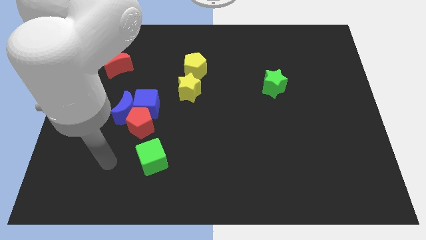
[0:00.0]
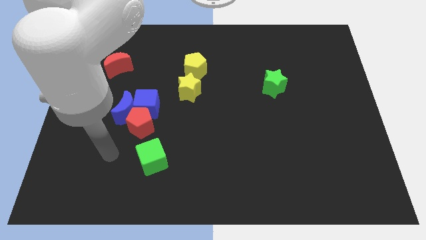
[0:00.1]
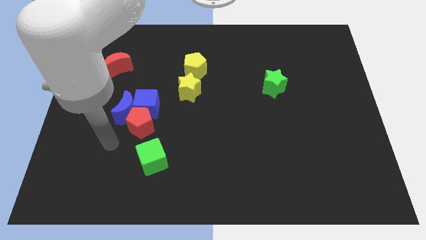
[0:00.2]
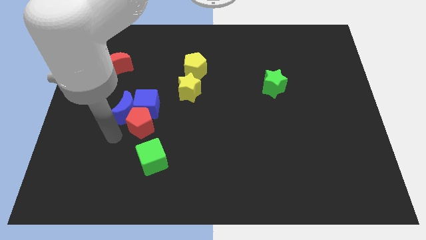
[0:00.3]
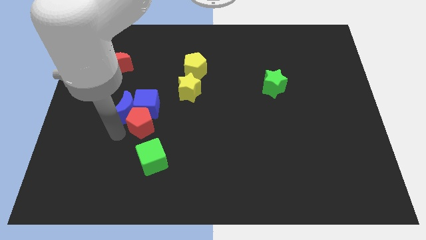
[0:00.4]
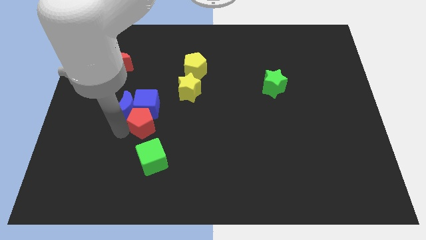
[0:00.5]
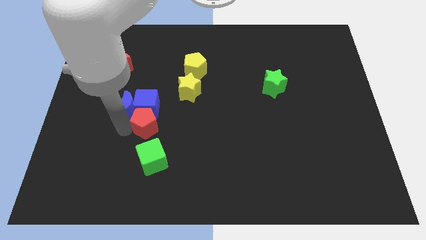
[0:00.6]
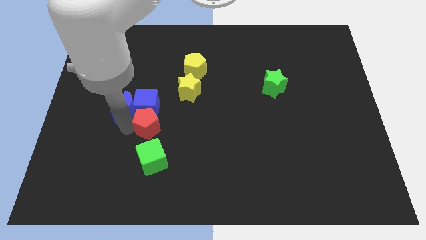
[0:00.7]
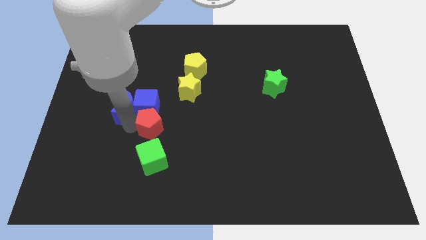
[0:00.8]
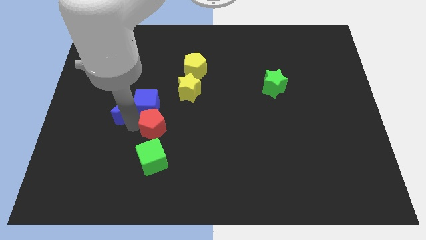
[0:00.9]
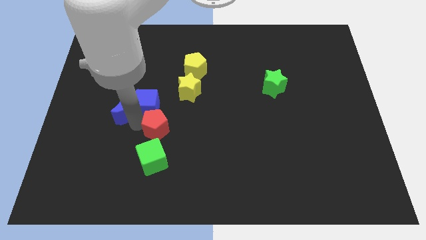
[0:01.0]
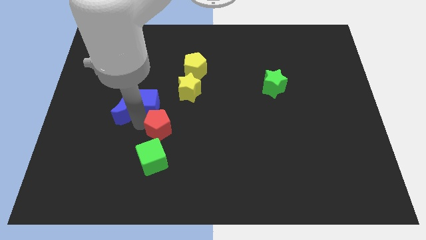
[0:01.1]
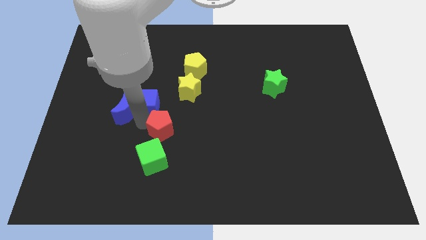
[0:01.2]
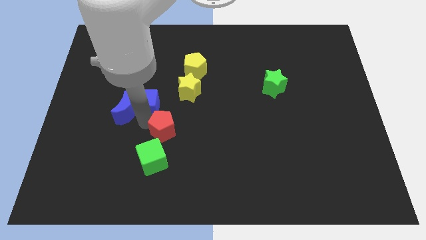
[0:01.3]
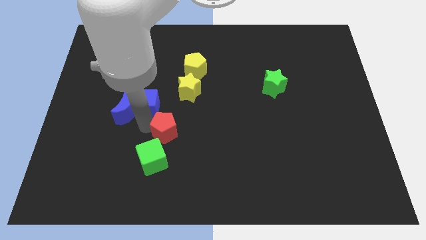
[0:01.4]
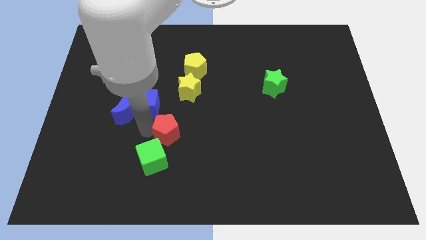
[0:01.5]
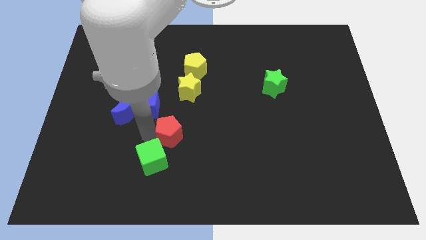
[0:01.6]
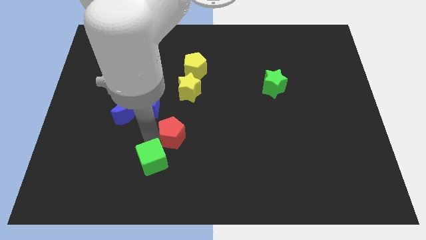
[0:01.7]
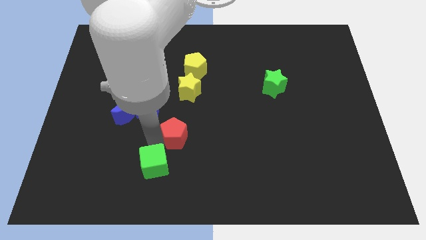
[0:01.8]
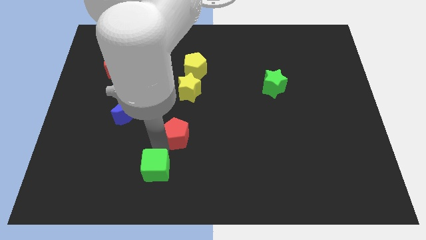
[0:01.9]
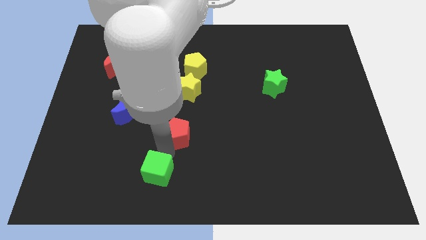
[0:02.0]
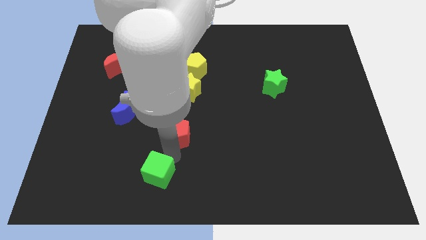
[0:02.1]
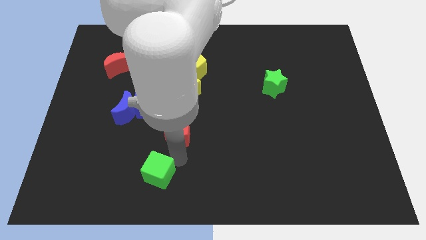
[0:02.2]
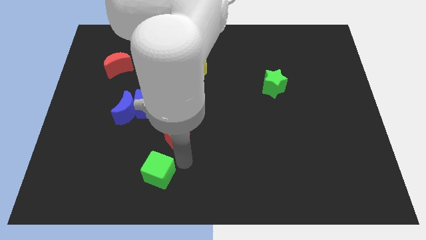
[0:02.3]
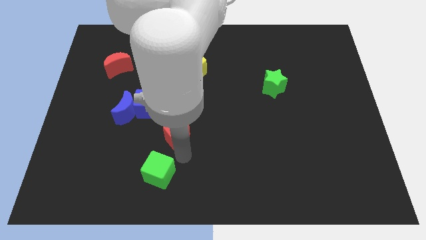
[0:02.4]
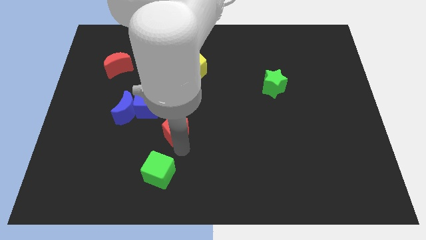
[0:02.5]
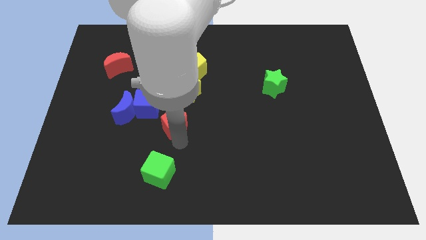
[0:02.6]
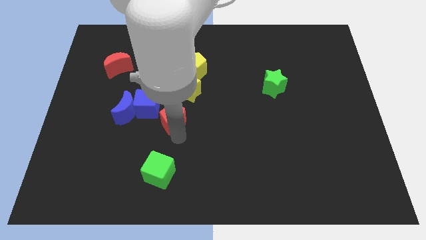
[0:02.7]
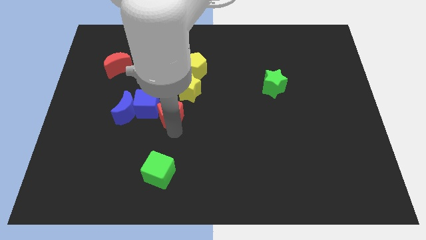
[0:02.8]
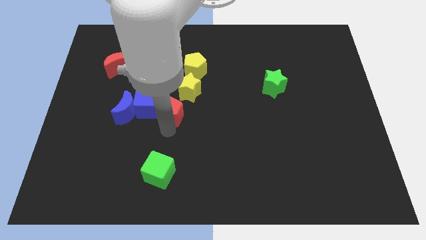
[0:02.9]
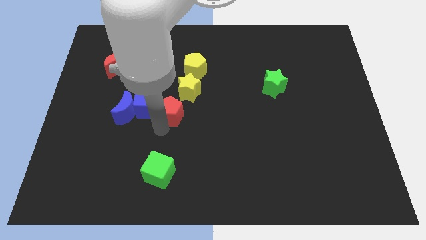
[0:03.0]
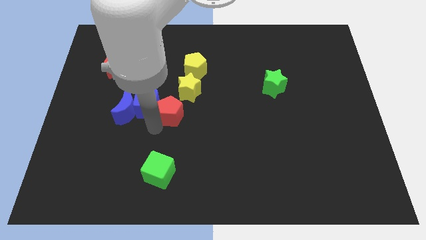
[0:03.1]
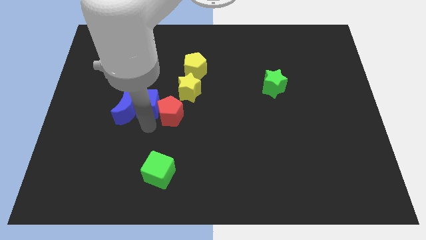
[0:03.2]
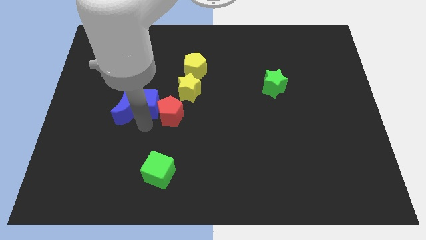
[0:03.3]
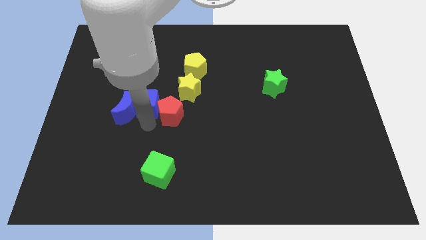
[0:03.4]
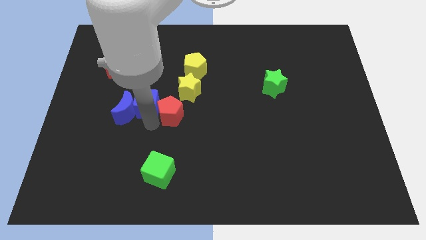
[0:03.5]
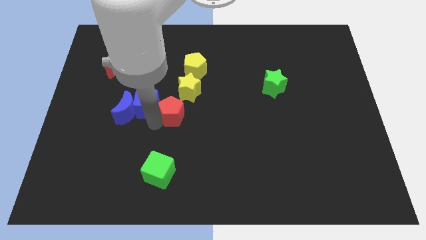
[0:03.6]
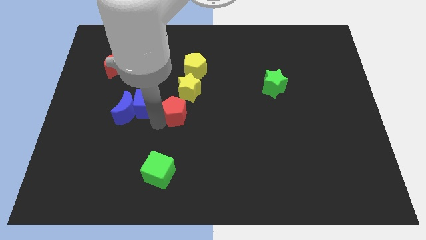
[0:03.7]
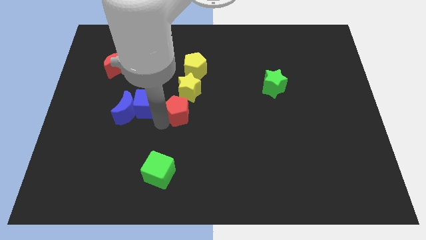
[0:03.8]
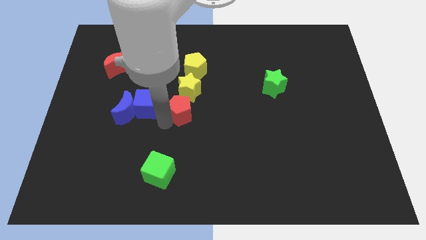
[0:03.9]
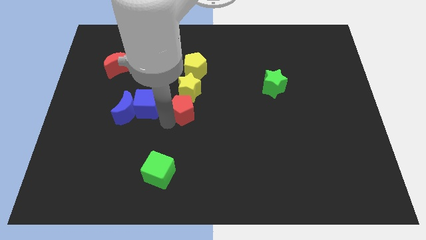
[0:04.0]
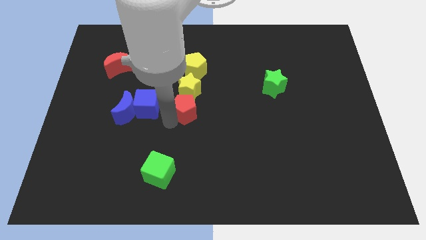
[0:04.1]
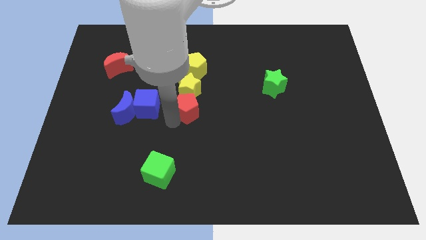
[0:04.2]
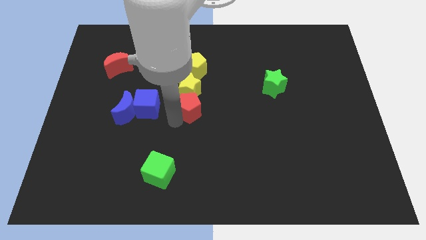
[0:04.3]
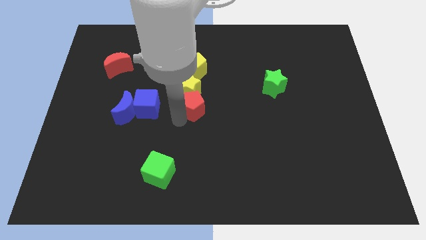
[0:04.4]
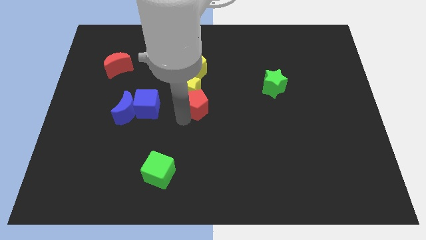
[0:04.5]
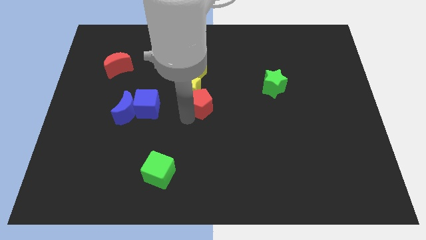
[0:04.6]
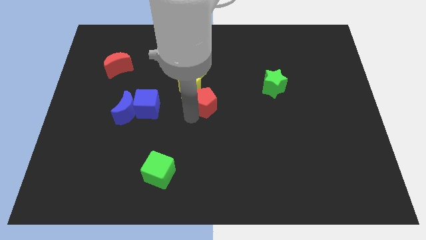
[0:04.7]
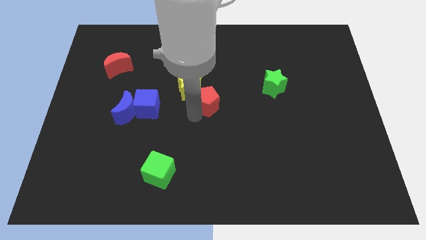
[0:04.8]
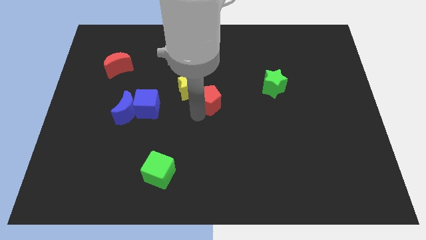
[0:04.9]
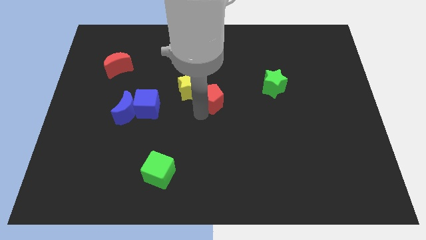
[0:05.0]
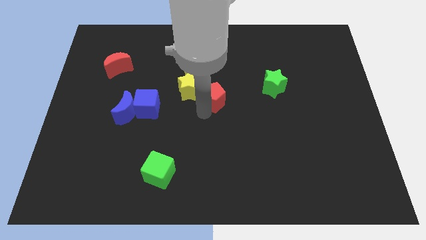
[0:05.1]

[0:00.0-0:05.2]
slide the red pentagon to the bottom right side of the yellow pentagon

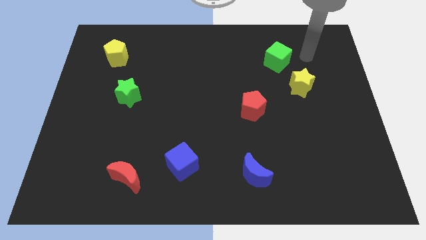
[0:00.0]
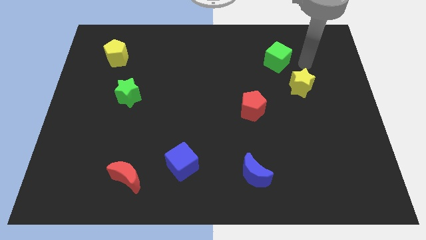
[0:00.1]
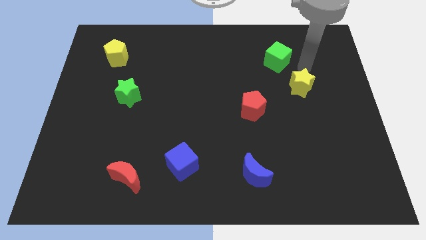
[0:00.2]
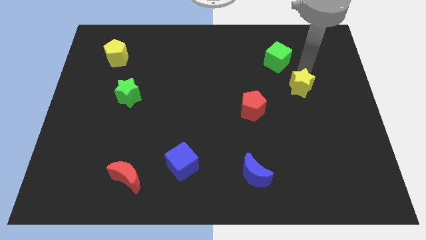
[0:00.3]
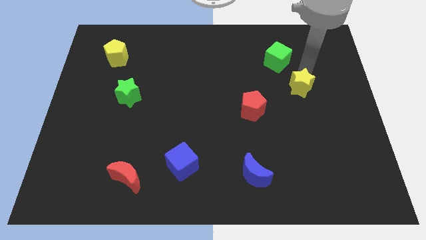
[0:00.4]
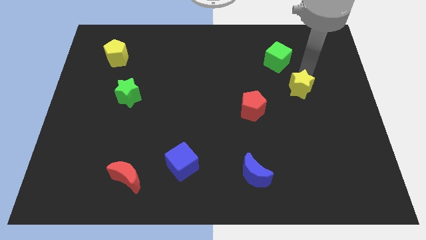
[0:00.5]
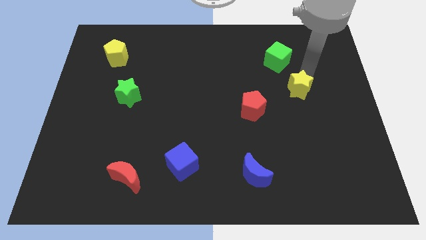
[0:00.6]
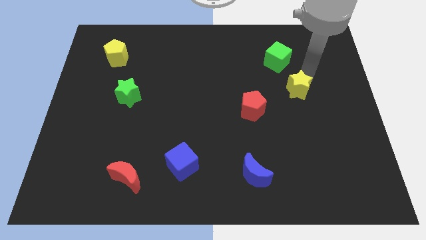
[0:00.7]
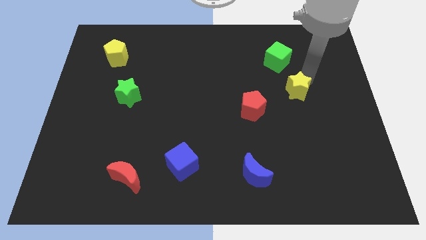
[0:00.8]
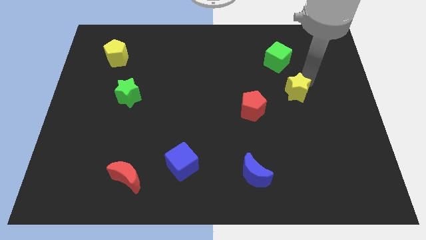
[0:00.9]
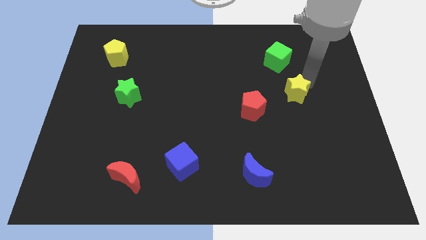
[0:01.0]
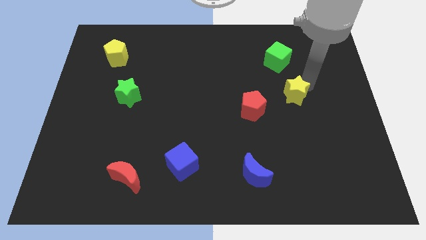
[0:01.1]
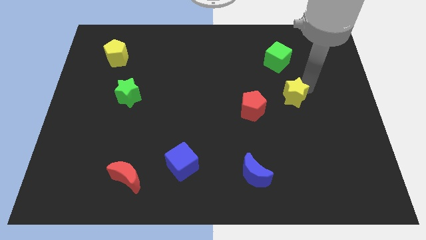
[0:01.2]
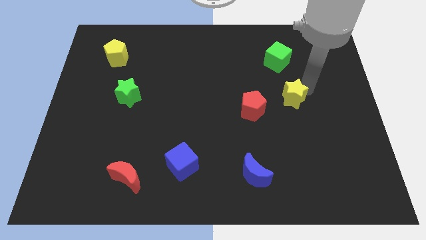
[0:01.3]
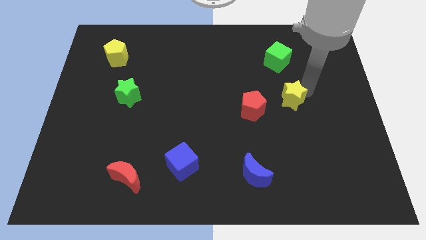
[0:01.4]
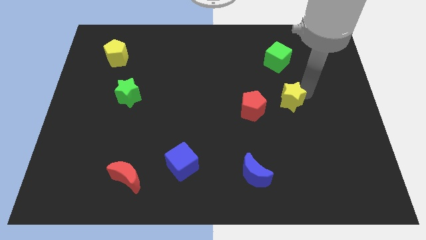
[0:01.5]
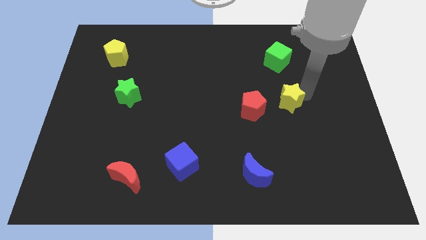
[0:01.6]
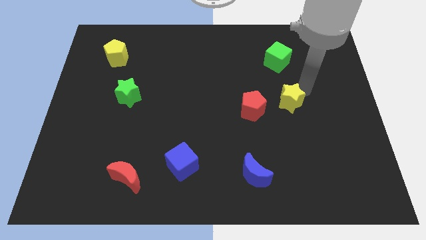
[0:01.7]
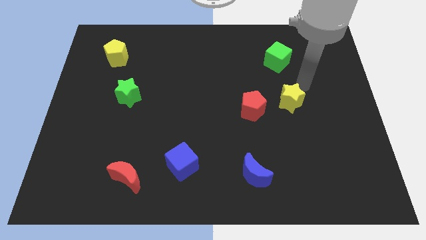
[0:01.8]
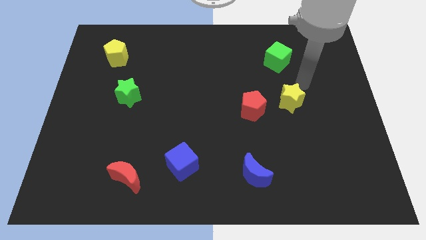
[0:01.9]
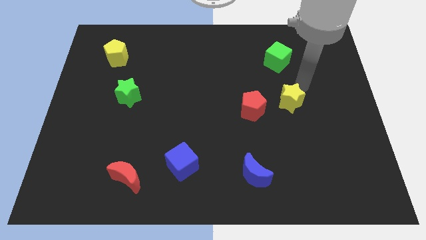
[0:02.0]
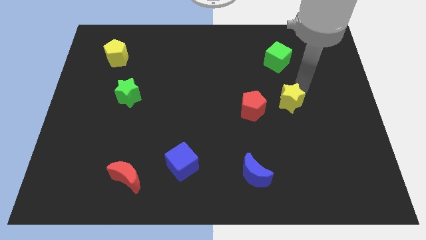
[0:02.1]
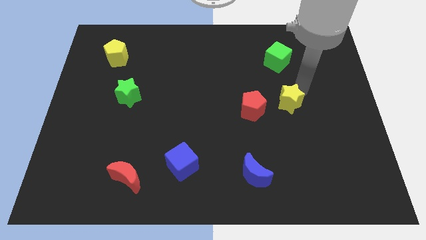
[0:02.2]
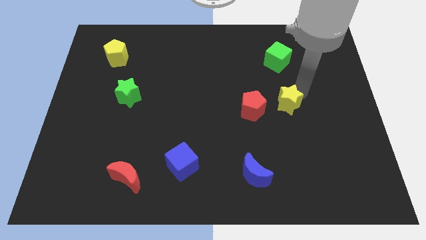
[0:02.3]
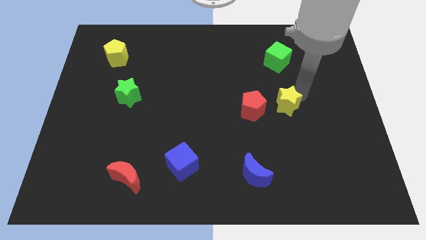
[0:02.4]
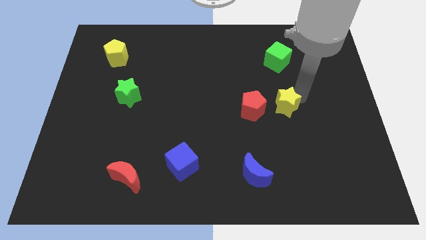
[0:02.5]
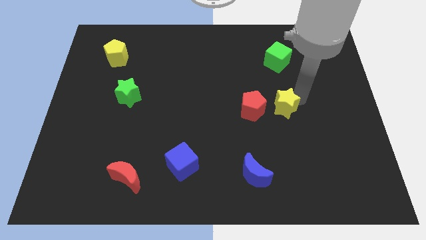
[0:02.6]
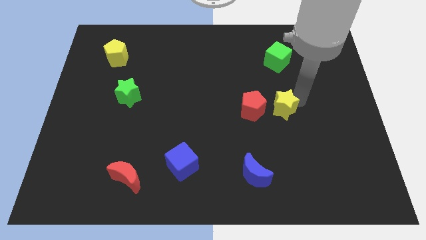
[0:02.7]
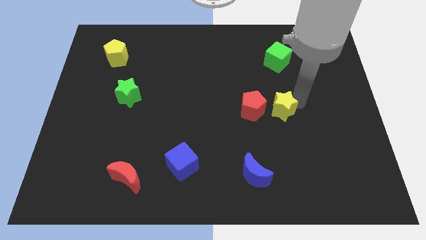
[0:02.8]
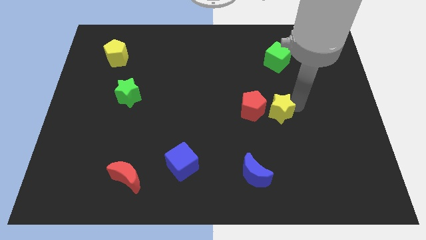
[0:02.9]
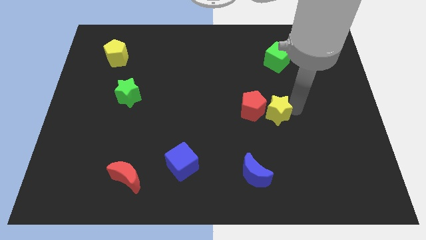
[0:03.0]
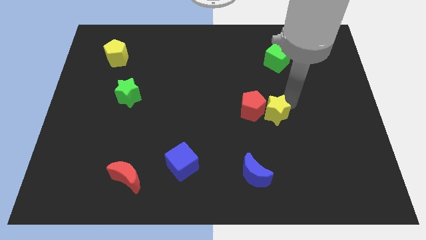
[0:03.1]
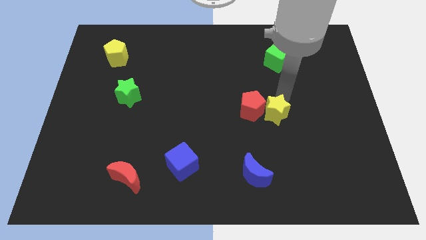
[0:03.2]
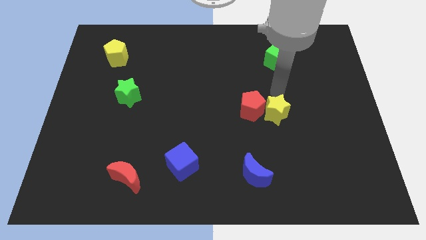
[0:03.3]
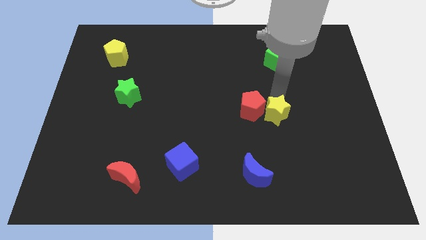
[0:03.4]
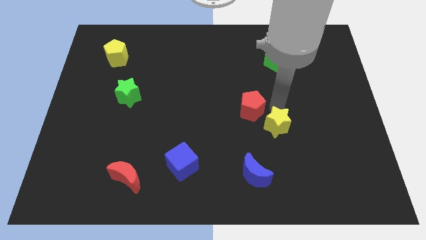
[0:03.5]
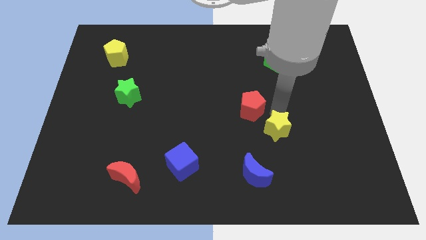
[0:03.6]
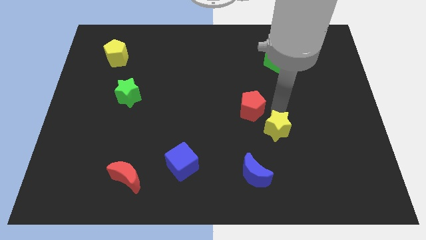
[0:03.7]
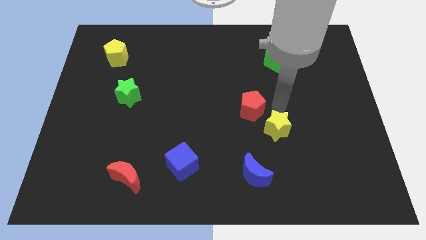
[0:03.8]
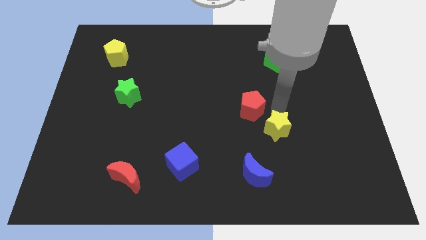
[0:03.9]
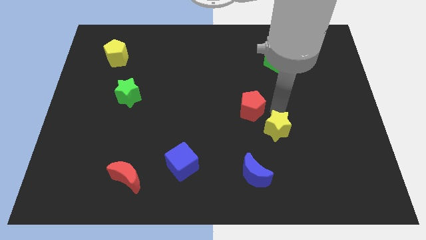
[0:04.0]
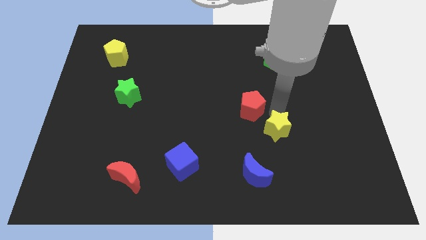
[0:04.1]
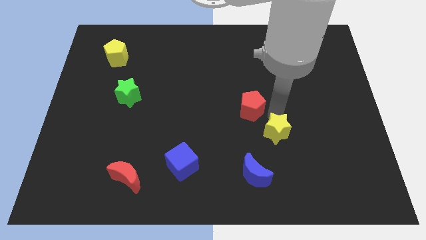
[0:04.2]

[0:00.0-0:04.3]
push the yellow star to the top right of the blue moon
